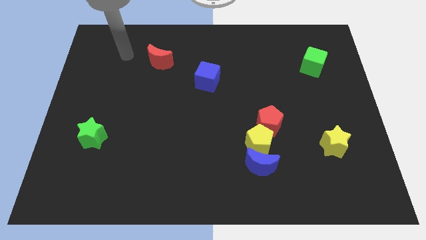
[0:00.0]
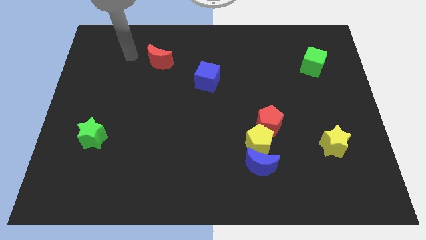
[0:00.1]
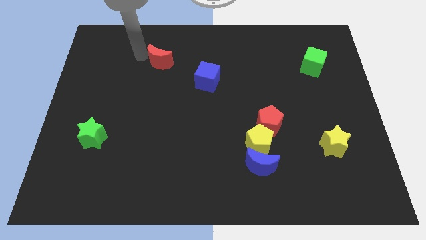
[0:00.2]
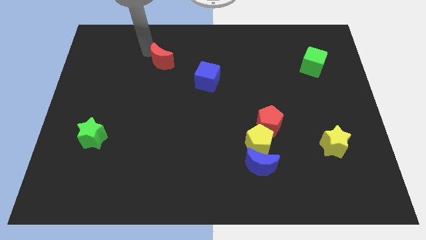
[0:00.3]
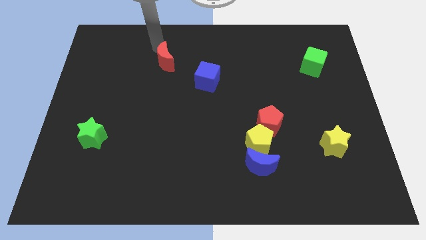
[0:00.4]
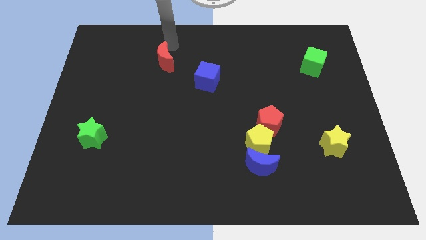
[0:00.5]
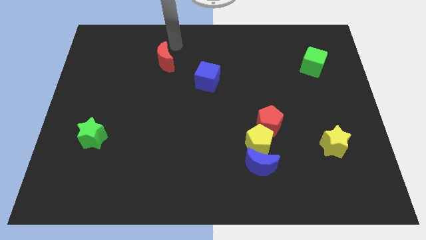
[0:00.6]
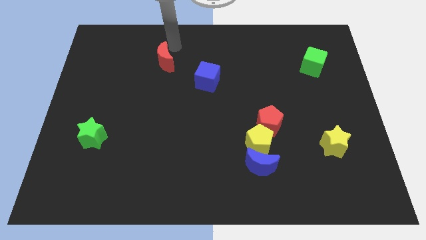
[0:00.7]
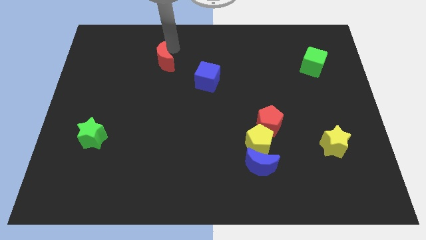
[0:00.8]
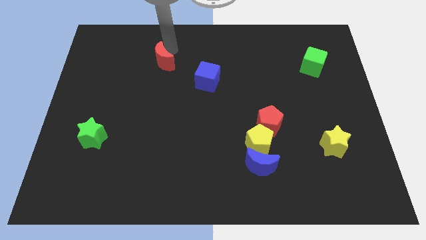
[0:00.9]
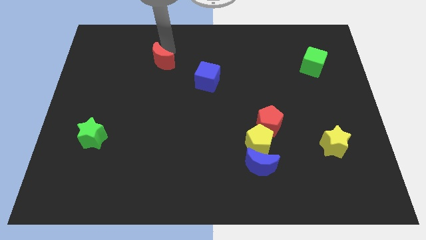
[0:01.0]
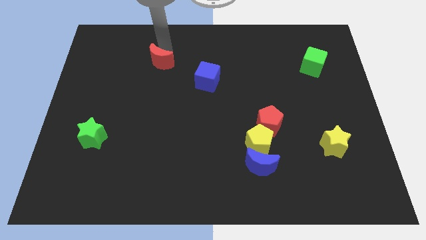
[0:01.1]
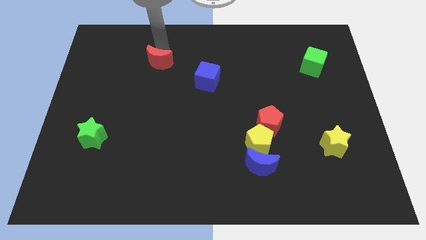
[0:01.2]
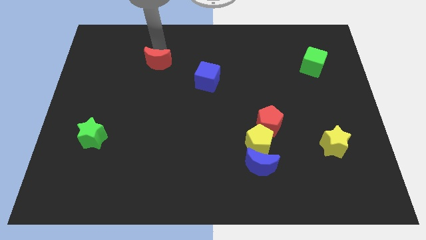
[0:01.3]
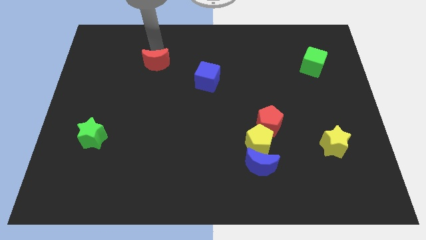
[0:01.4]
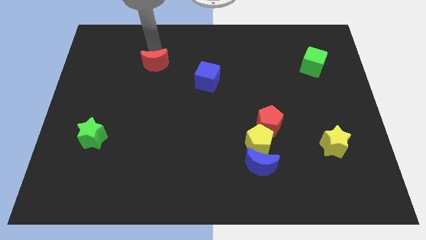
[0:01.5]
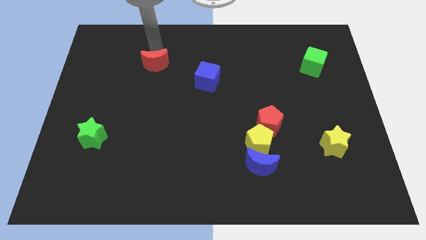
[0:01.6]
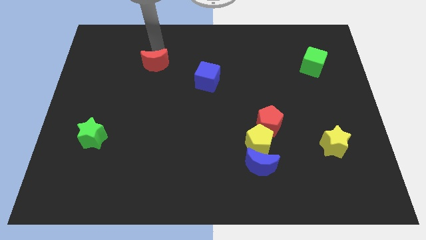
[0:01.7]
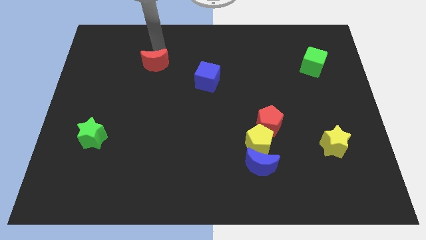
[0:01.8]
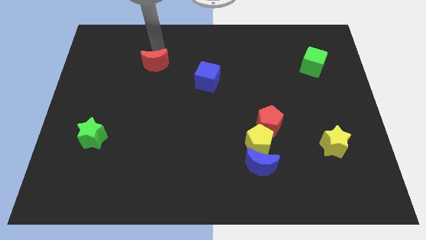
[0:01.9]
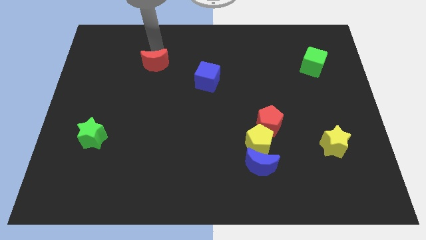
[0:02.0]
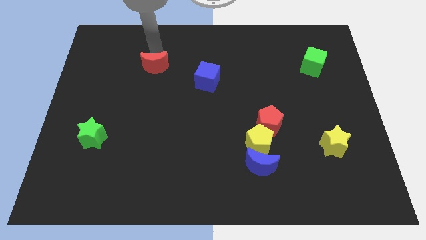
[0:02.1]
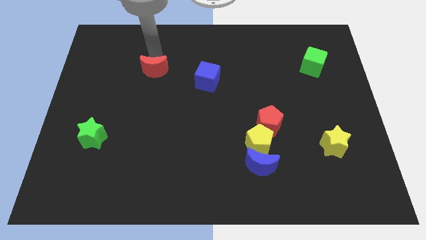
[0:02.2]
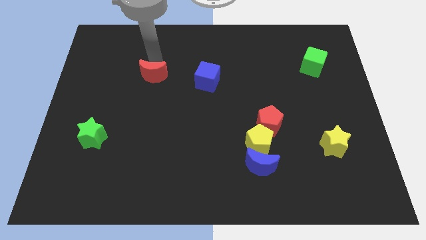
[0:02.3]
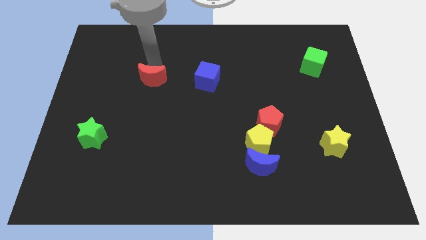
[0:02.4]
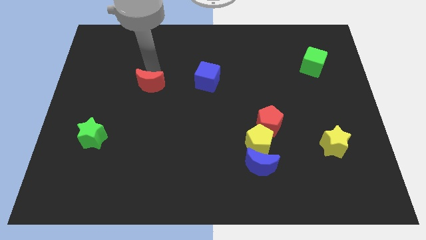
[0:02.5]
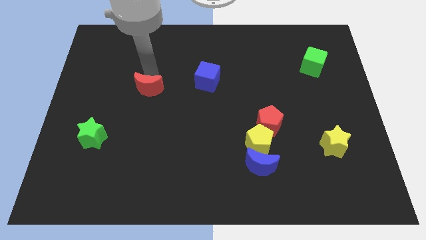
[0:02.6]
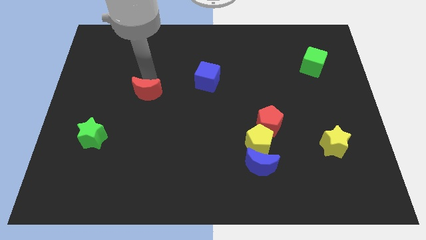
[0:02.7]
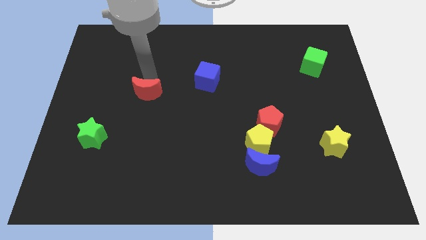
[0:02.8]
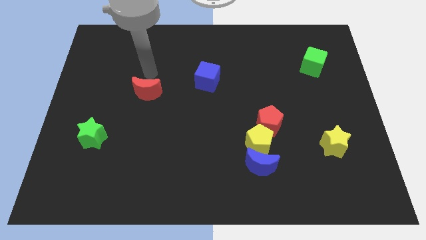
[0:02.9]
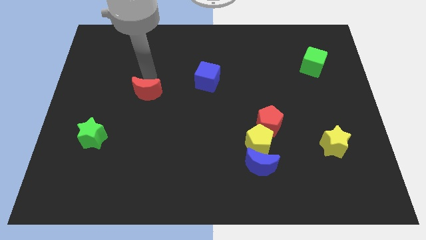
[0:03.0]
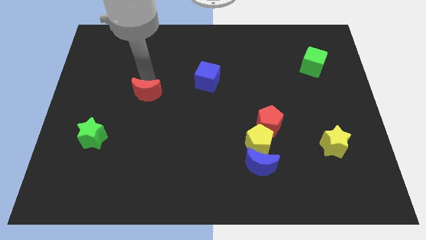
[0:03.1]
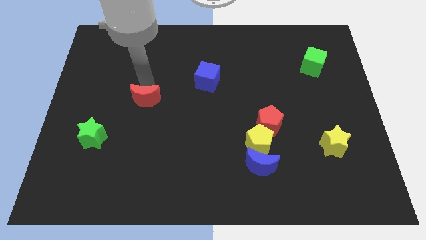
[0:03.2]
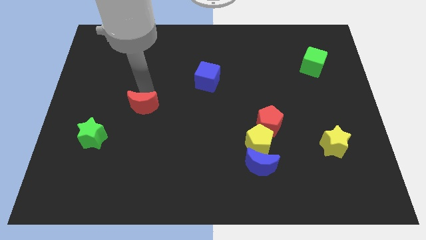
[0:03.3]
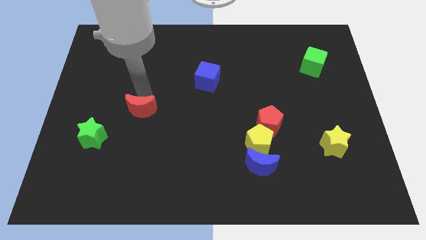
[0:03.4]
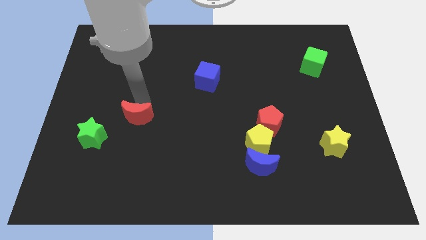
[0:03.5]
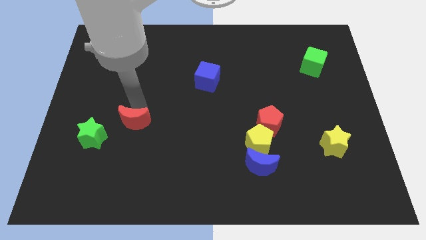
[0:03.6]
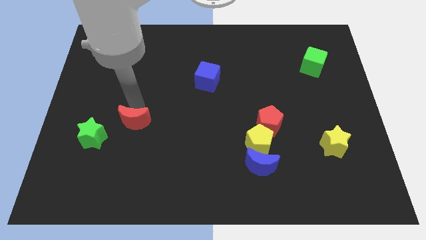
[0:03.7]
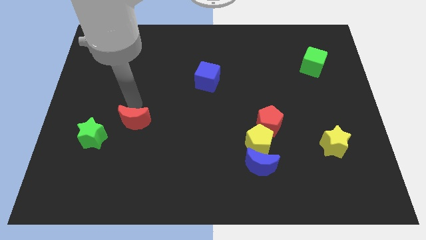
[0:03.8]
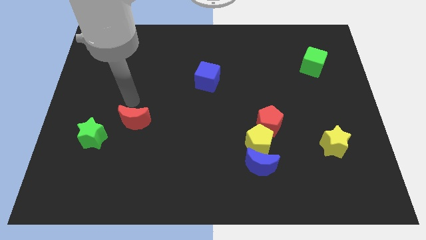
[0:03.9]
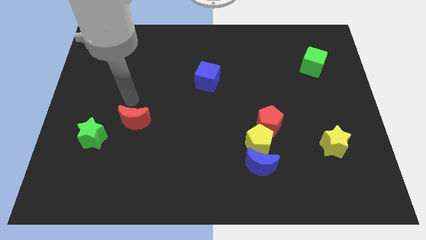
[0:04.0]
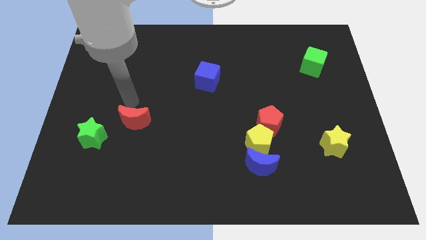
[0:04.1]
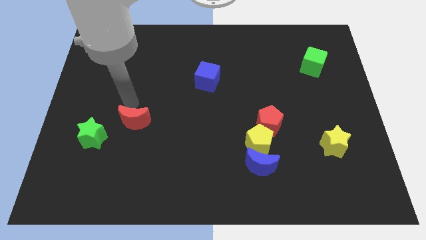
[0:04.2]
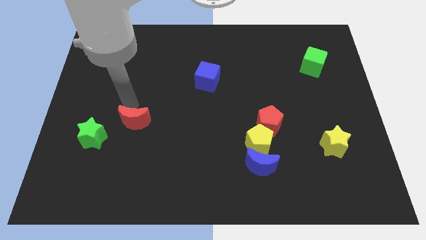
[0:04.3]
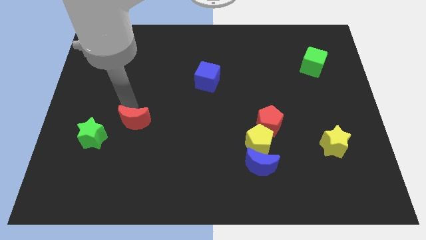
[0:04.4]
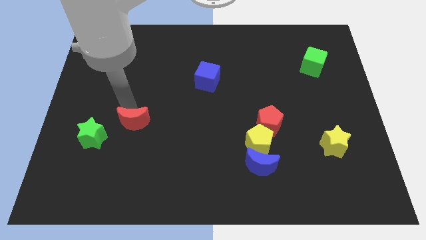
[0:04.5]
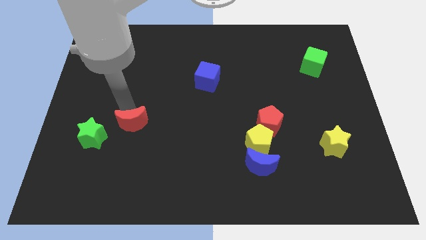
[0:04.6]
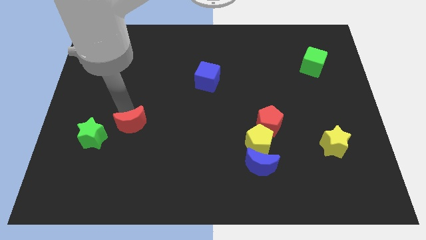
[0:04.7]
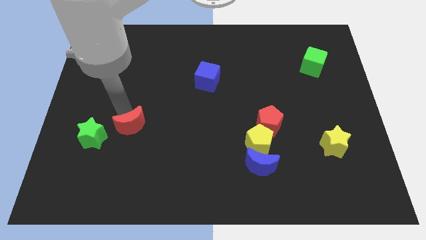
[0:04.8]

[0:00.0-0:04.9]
move the red moon down

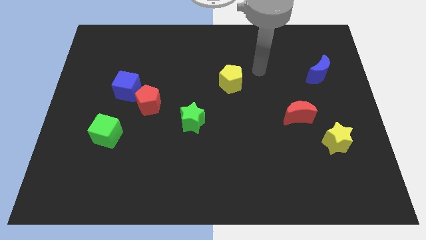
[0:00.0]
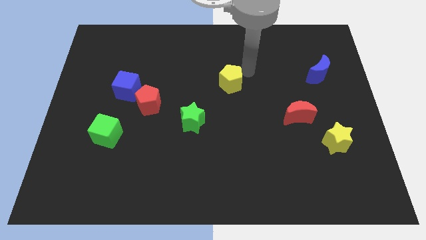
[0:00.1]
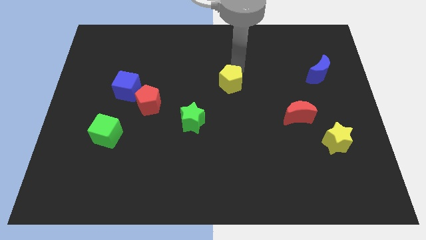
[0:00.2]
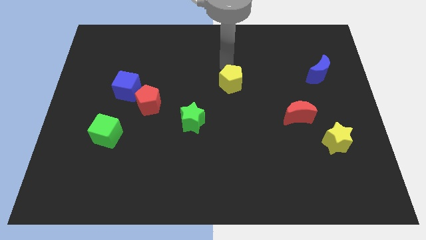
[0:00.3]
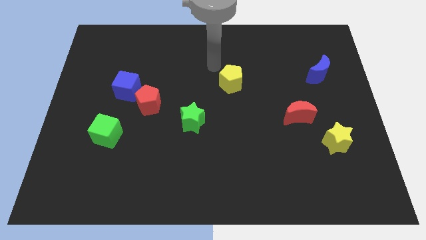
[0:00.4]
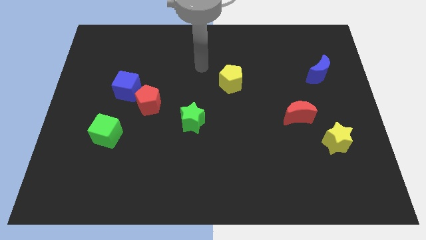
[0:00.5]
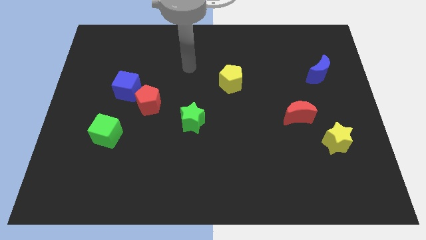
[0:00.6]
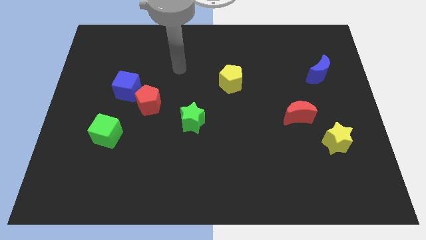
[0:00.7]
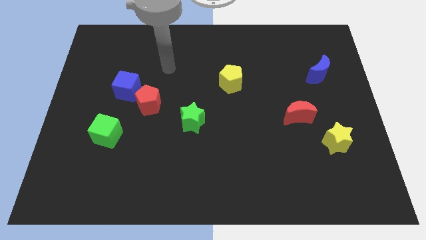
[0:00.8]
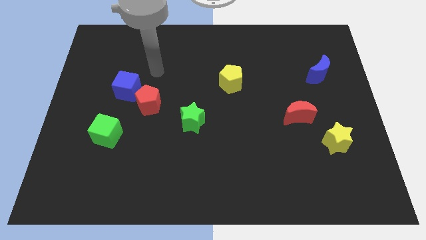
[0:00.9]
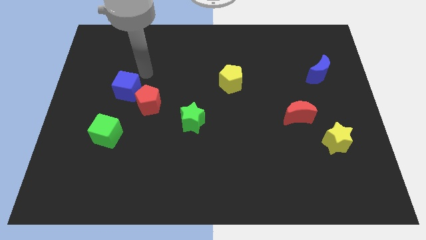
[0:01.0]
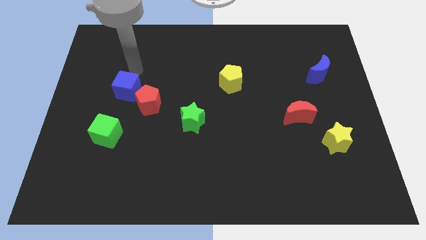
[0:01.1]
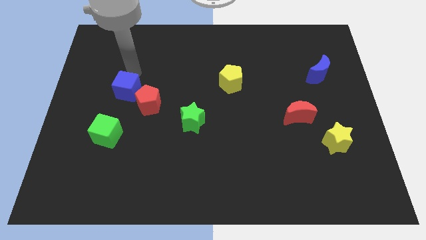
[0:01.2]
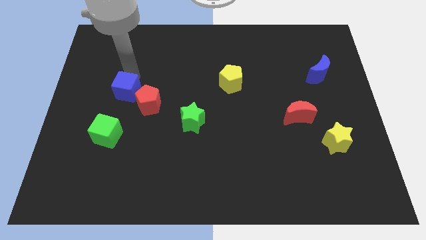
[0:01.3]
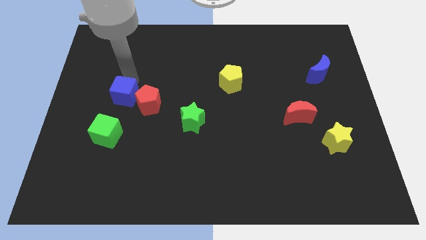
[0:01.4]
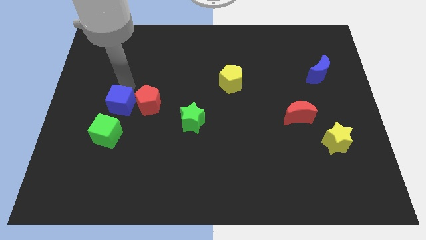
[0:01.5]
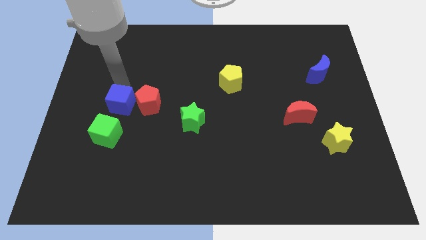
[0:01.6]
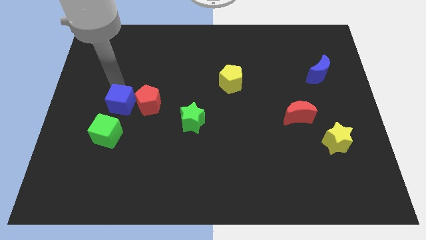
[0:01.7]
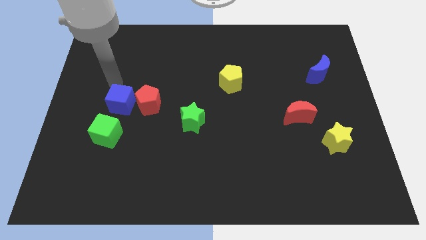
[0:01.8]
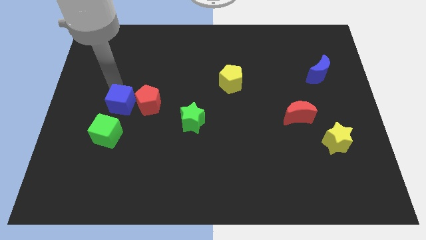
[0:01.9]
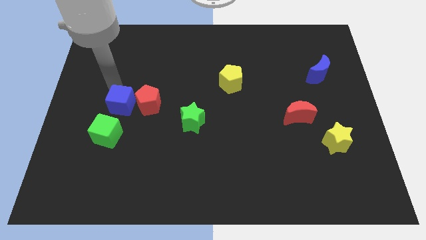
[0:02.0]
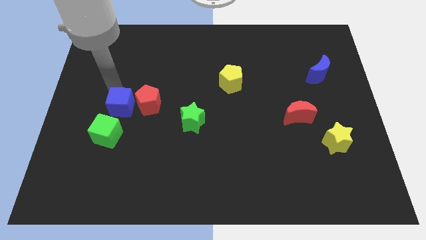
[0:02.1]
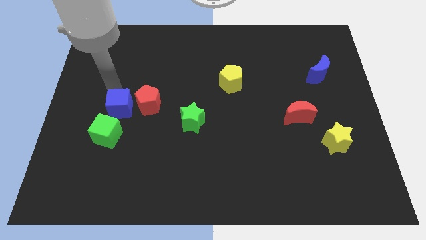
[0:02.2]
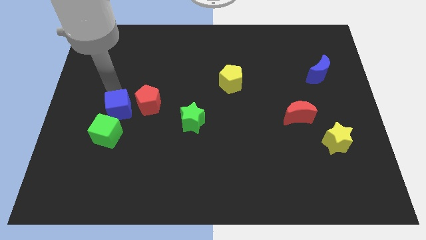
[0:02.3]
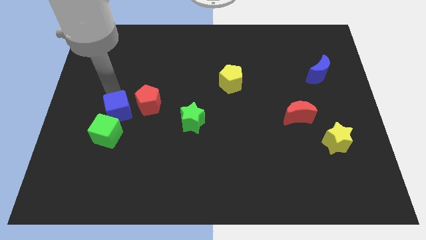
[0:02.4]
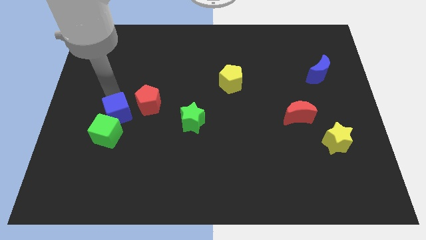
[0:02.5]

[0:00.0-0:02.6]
move the blue cube down a little

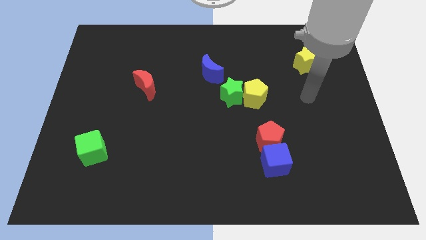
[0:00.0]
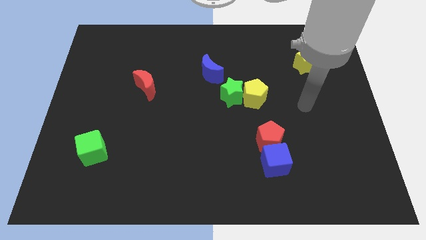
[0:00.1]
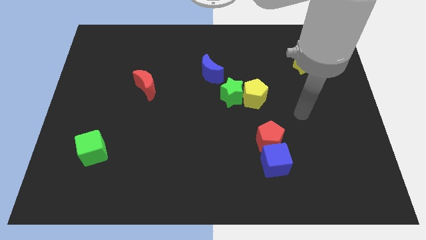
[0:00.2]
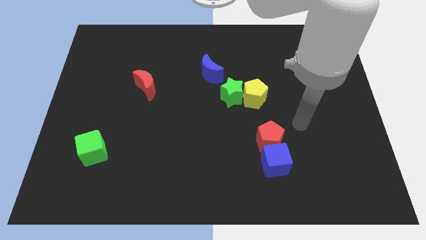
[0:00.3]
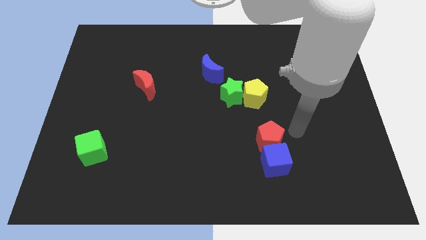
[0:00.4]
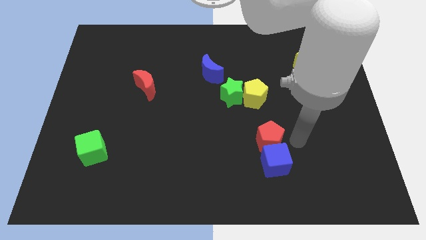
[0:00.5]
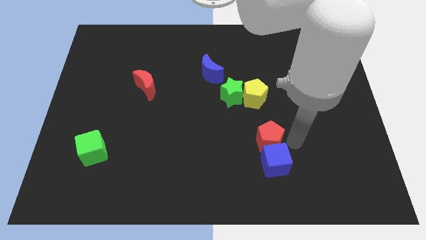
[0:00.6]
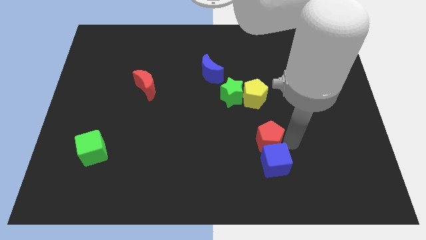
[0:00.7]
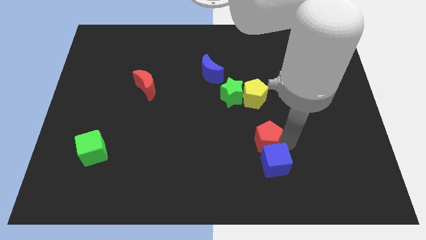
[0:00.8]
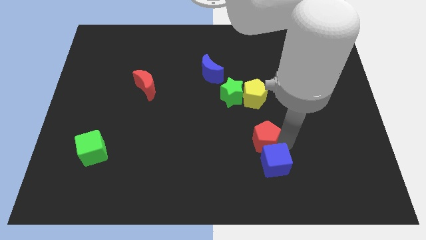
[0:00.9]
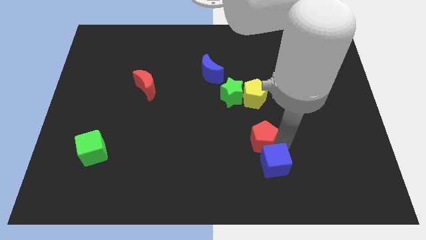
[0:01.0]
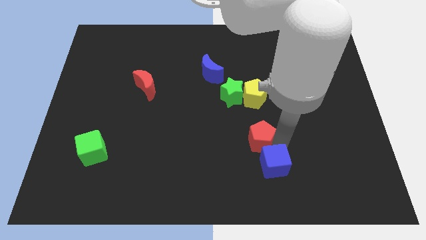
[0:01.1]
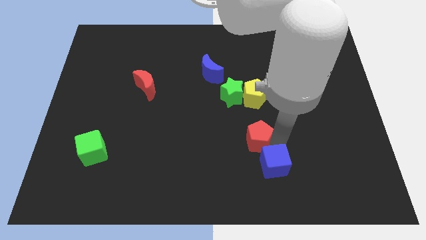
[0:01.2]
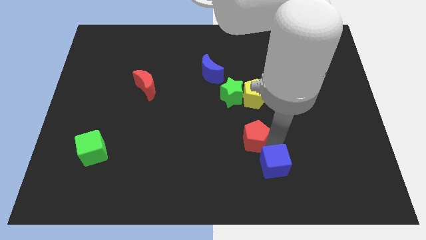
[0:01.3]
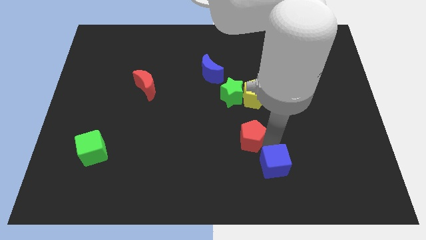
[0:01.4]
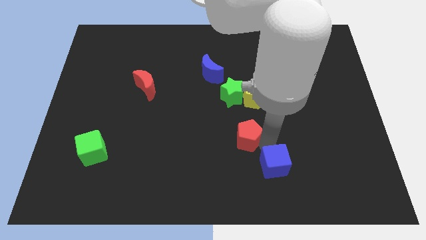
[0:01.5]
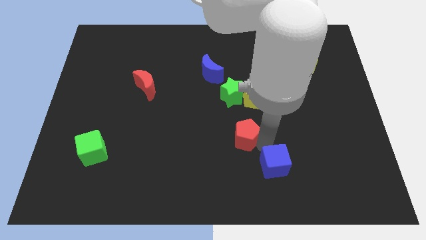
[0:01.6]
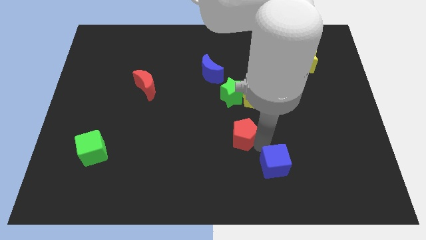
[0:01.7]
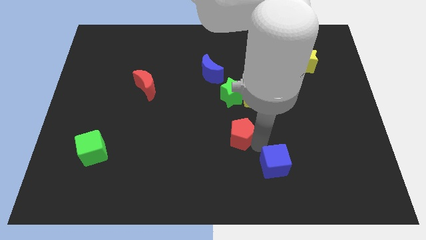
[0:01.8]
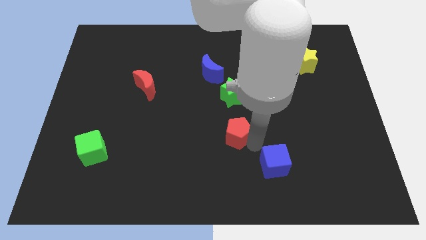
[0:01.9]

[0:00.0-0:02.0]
move the red pentagon a little bit left
